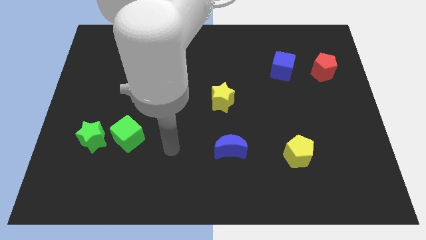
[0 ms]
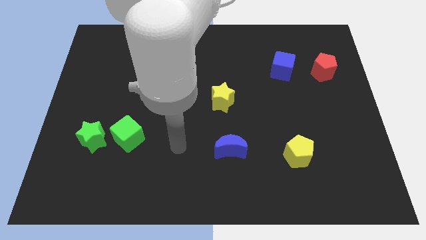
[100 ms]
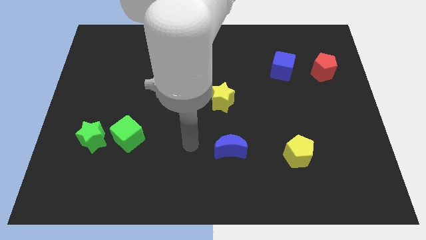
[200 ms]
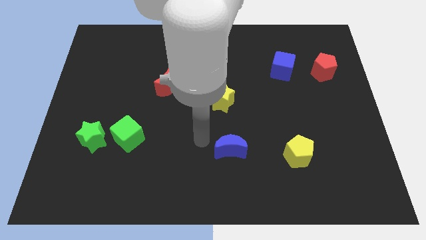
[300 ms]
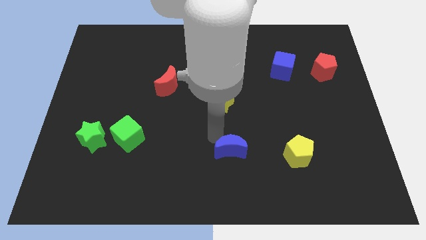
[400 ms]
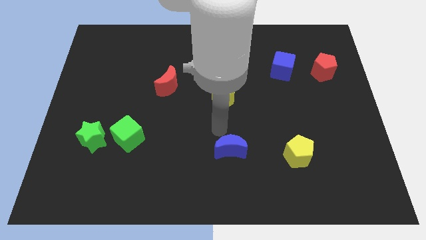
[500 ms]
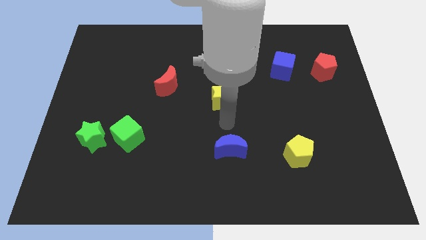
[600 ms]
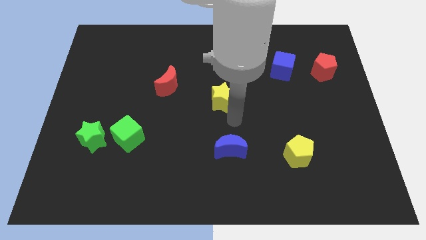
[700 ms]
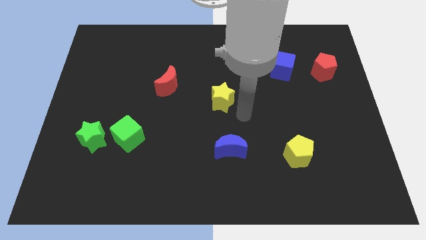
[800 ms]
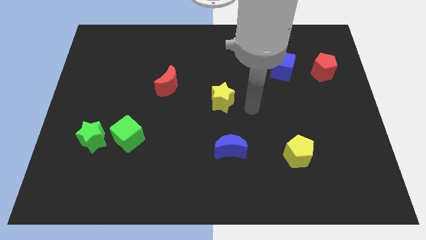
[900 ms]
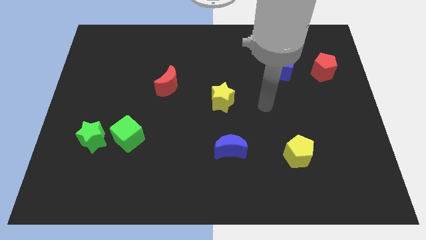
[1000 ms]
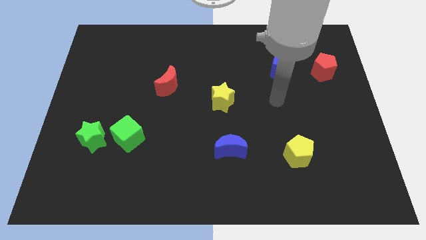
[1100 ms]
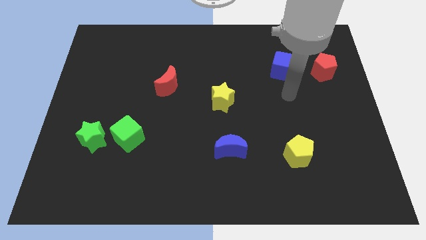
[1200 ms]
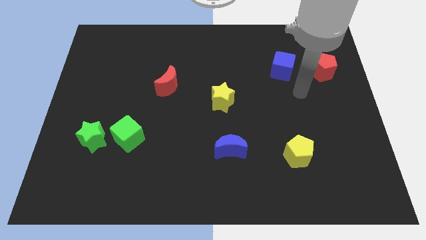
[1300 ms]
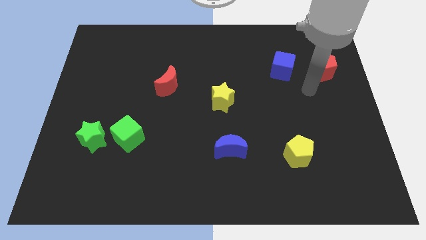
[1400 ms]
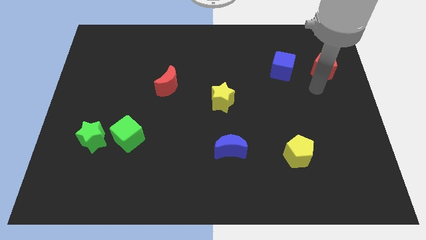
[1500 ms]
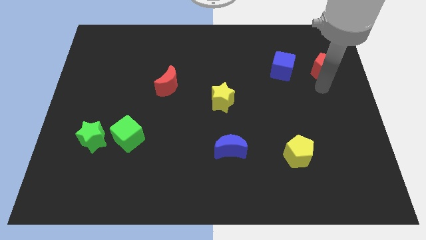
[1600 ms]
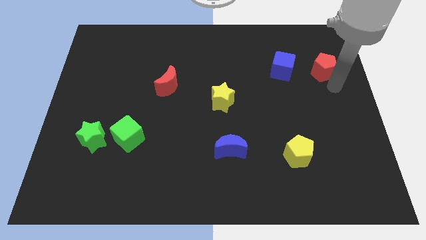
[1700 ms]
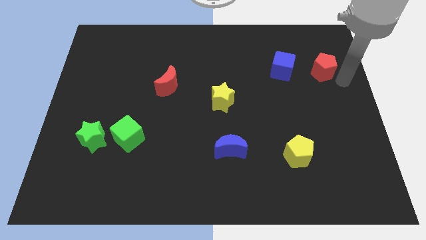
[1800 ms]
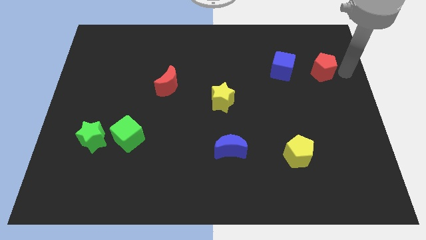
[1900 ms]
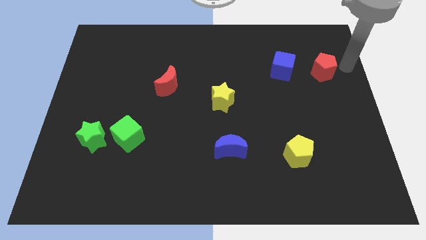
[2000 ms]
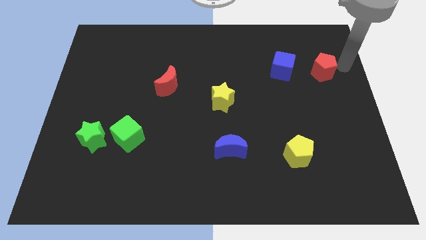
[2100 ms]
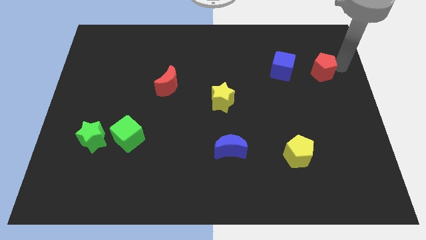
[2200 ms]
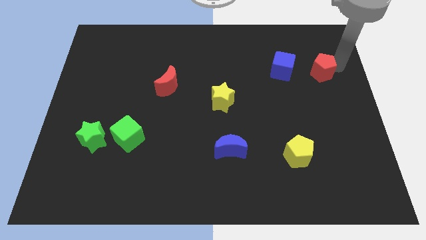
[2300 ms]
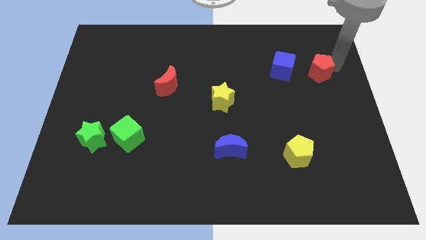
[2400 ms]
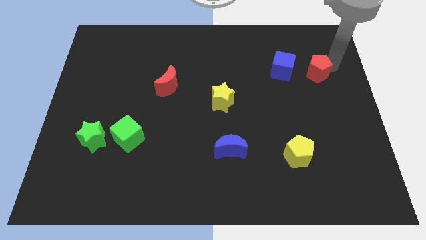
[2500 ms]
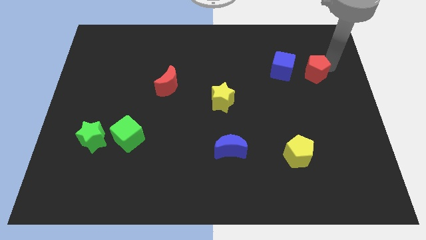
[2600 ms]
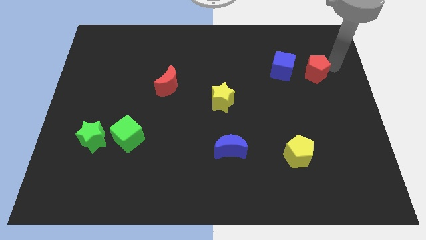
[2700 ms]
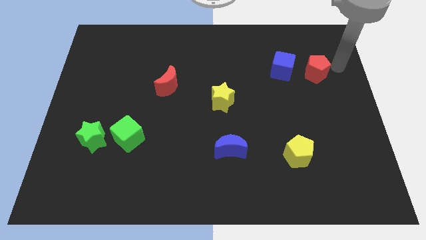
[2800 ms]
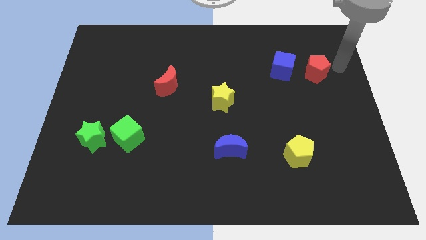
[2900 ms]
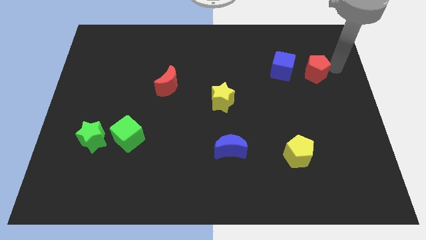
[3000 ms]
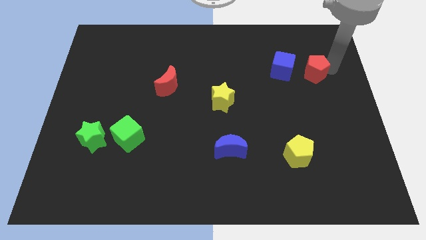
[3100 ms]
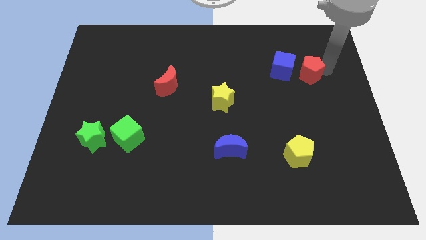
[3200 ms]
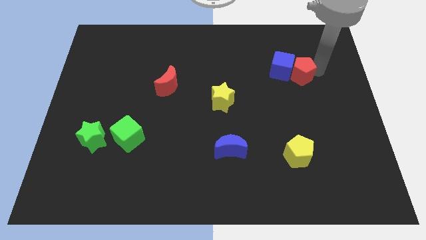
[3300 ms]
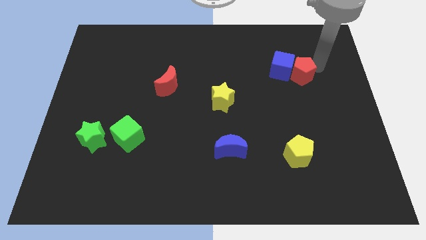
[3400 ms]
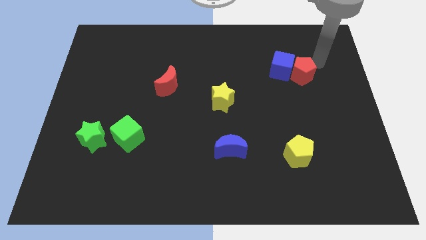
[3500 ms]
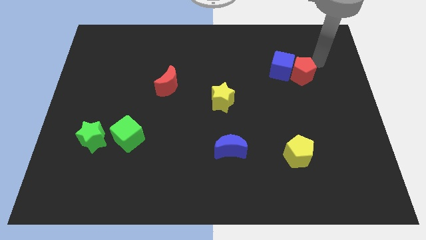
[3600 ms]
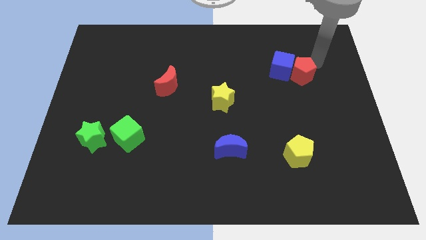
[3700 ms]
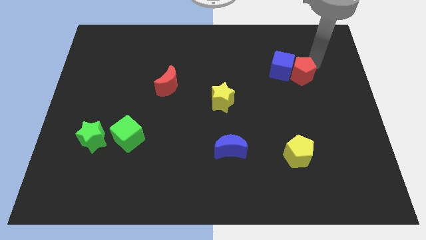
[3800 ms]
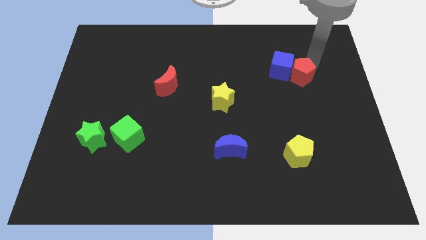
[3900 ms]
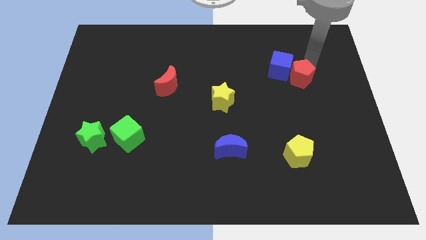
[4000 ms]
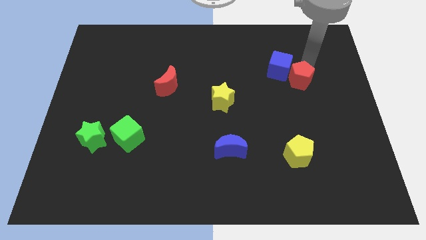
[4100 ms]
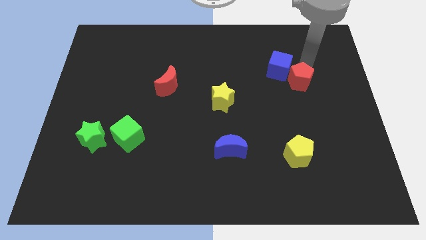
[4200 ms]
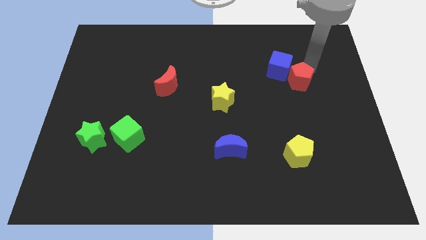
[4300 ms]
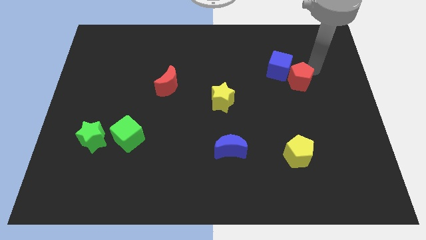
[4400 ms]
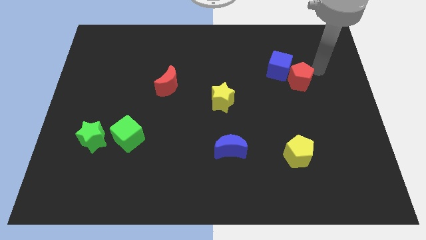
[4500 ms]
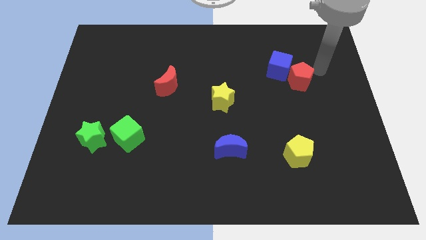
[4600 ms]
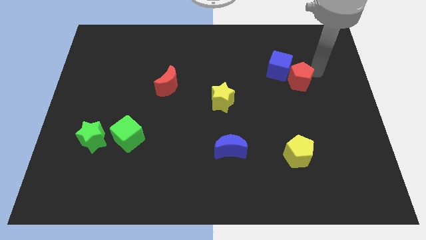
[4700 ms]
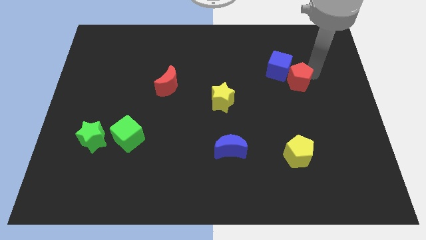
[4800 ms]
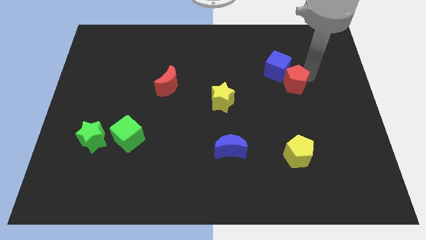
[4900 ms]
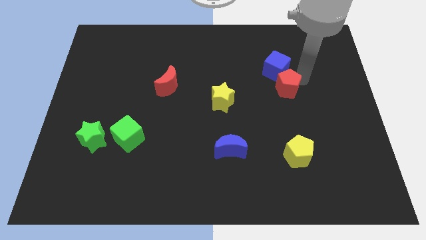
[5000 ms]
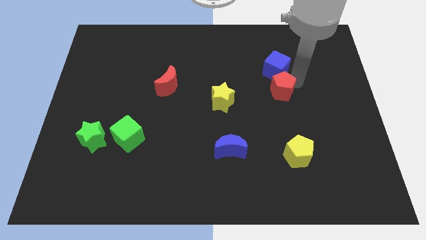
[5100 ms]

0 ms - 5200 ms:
push the red pentagon to the right side of the yellow star

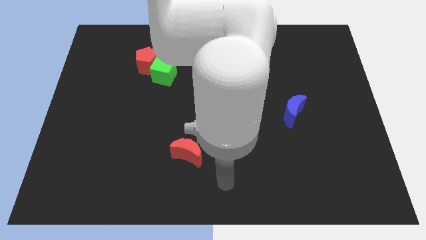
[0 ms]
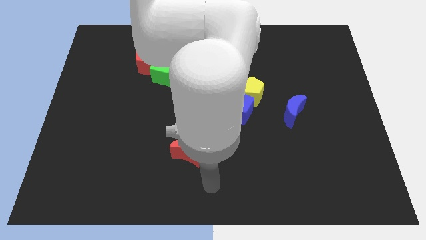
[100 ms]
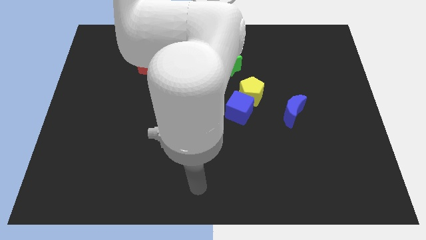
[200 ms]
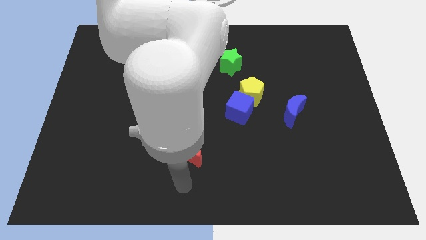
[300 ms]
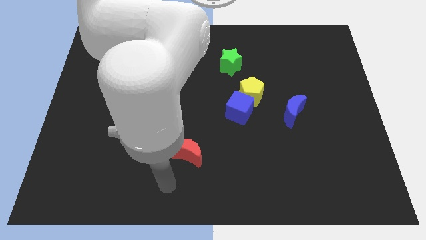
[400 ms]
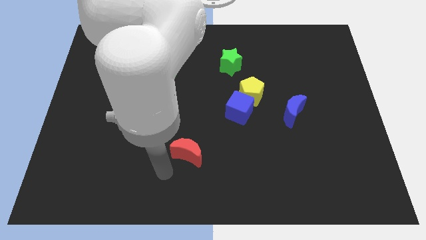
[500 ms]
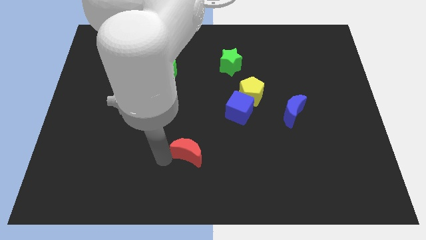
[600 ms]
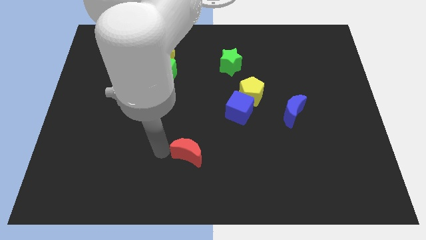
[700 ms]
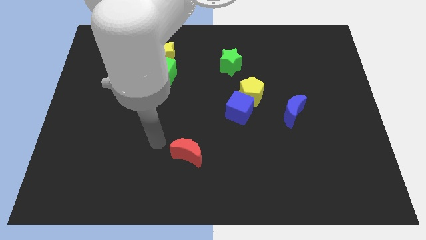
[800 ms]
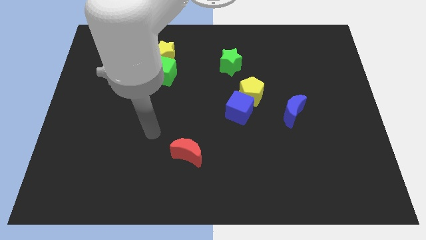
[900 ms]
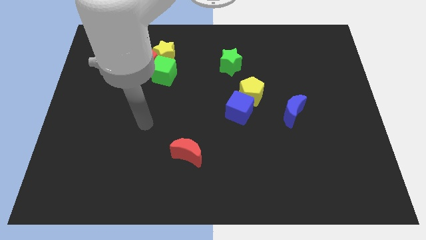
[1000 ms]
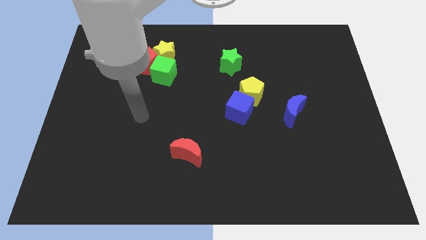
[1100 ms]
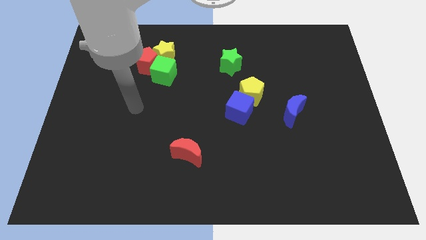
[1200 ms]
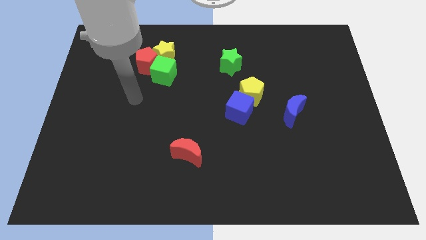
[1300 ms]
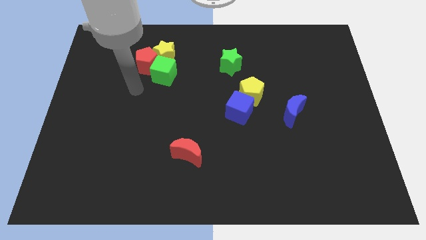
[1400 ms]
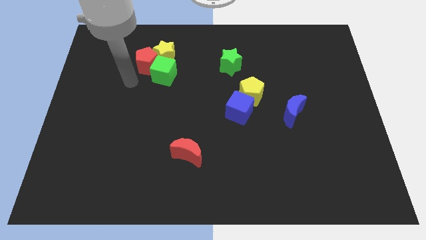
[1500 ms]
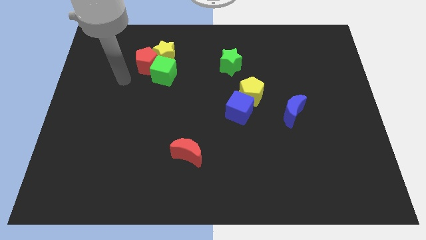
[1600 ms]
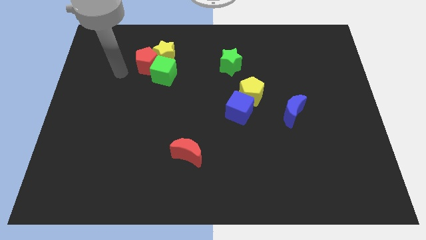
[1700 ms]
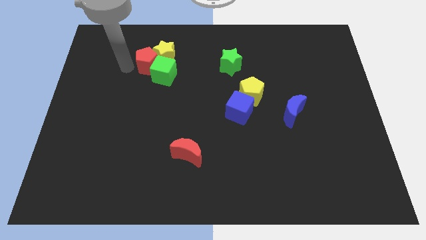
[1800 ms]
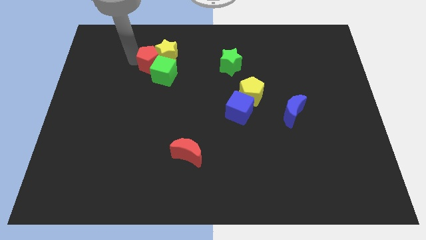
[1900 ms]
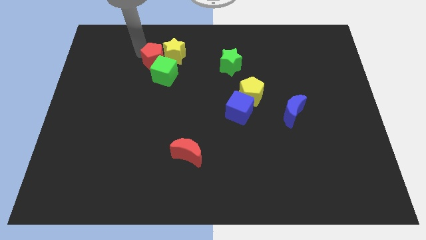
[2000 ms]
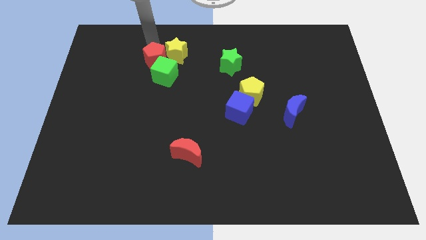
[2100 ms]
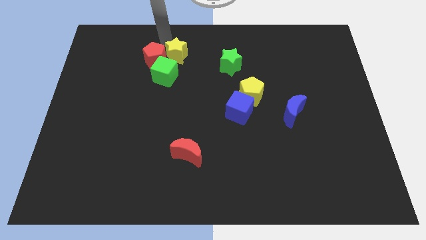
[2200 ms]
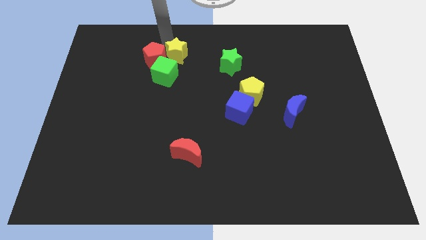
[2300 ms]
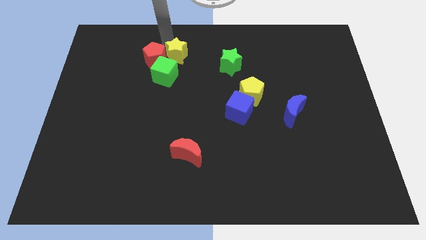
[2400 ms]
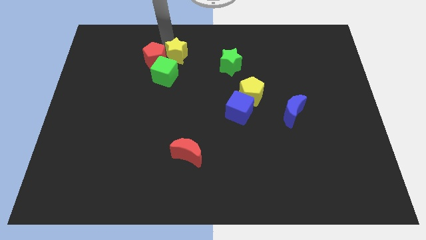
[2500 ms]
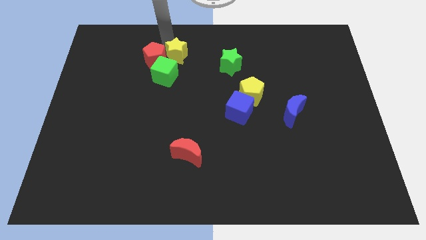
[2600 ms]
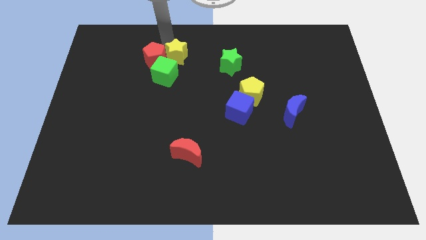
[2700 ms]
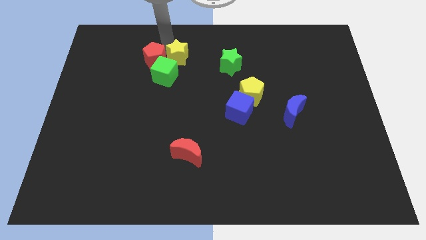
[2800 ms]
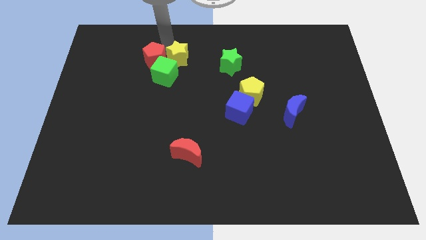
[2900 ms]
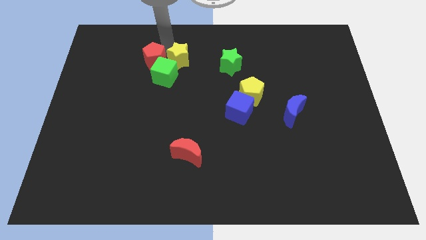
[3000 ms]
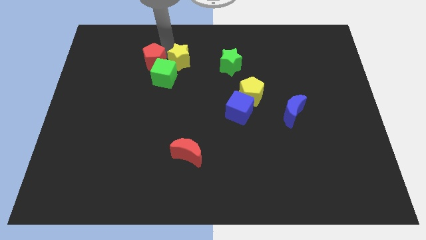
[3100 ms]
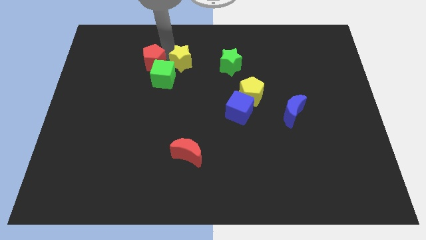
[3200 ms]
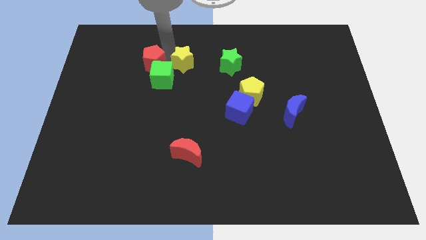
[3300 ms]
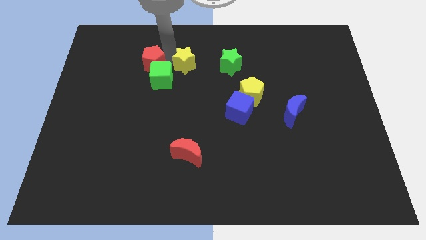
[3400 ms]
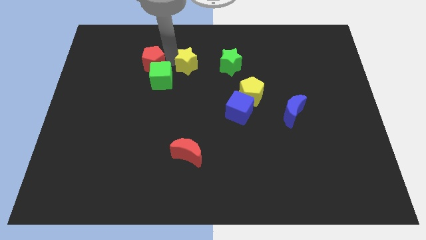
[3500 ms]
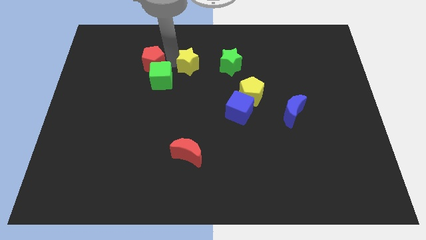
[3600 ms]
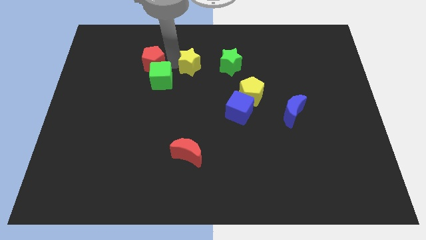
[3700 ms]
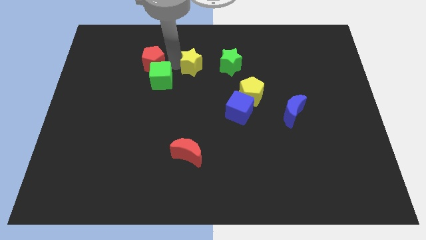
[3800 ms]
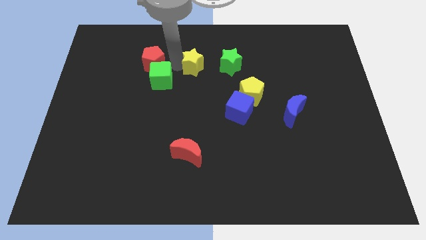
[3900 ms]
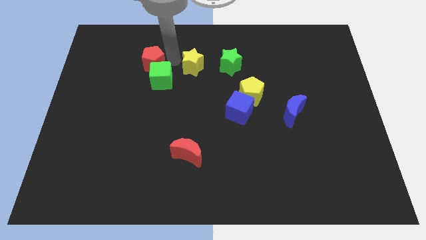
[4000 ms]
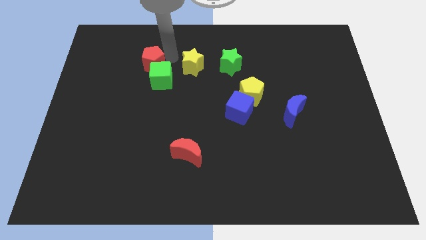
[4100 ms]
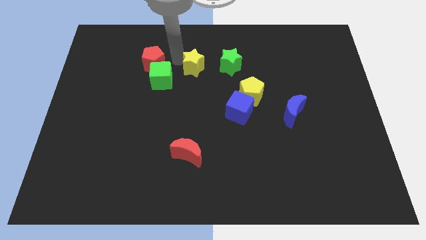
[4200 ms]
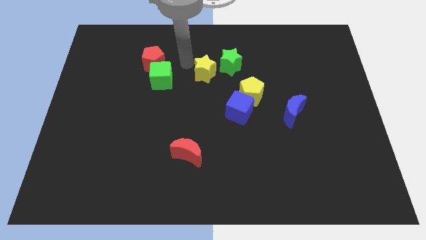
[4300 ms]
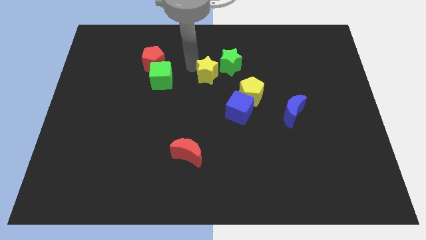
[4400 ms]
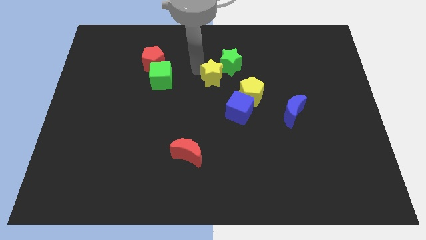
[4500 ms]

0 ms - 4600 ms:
move the yellow star to the top left side of the yellow pentagon
